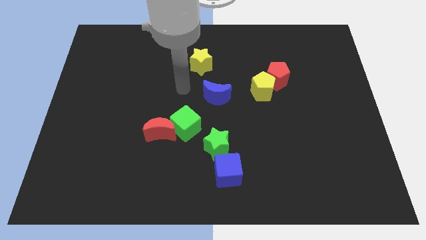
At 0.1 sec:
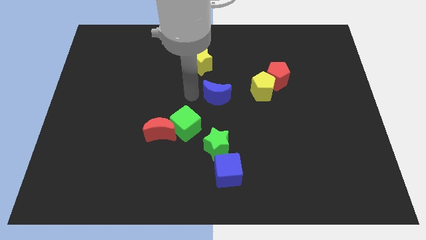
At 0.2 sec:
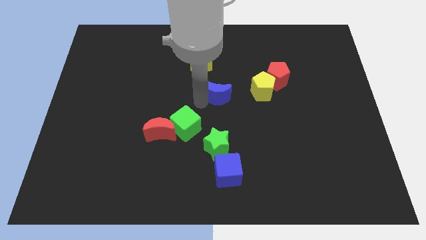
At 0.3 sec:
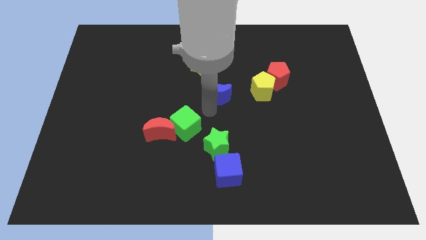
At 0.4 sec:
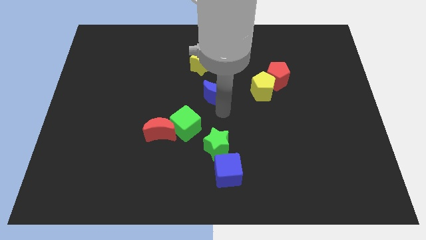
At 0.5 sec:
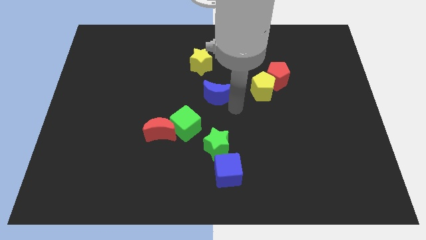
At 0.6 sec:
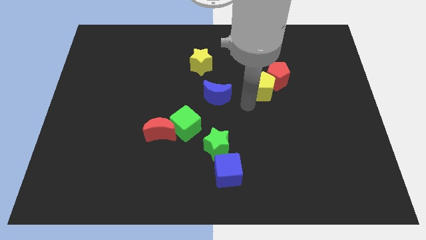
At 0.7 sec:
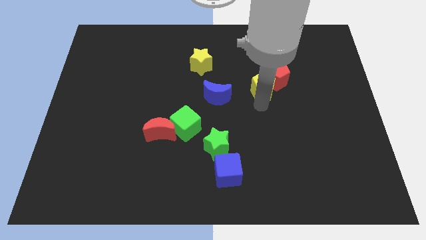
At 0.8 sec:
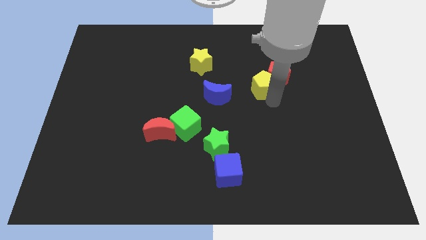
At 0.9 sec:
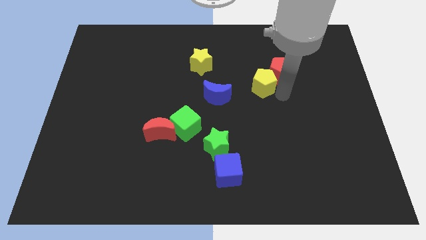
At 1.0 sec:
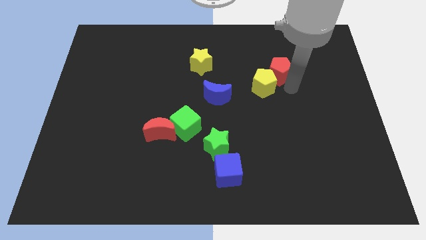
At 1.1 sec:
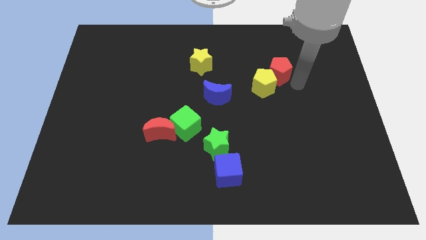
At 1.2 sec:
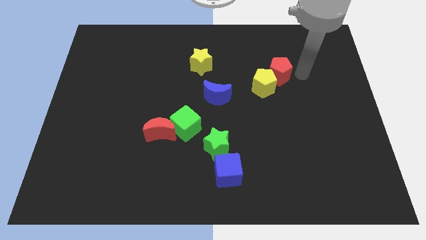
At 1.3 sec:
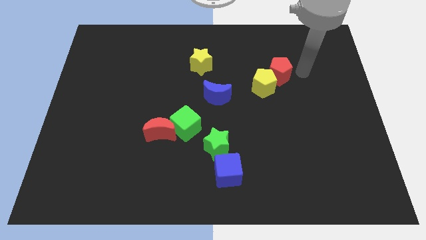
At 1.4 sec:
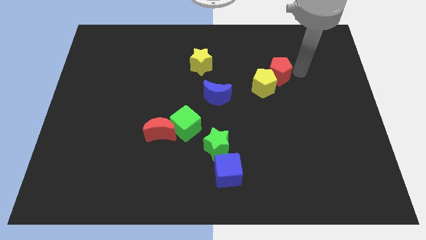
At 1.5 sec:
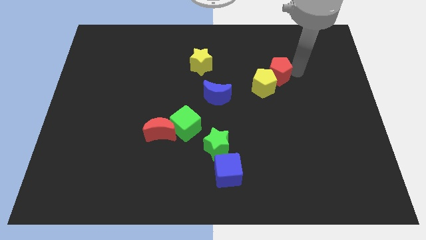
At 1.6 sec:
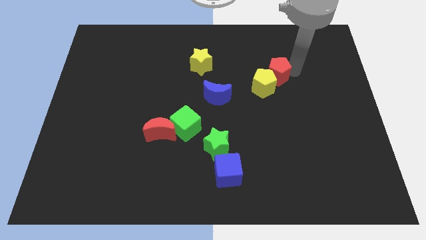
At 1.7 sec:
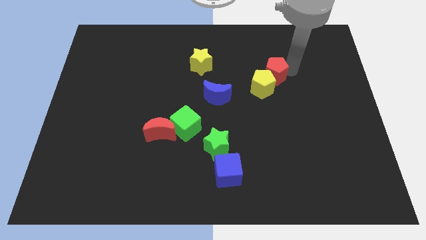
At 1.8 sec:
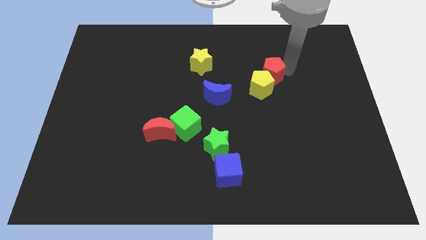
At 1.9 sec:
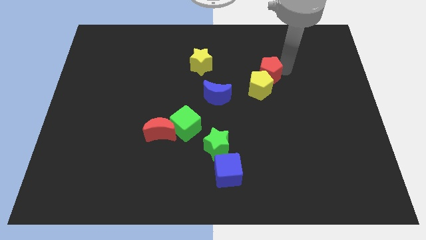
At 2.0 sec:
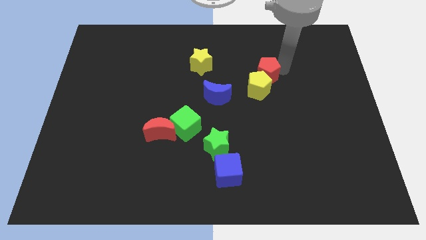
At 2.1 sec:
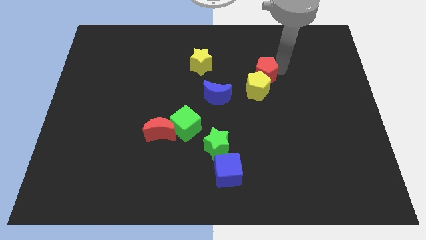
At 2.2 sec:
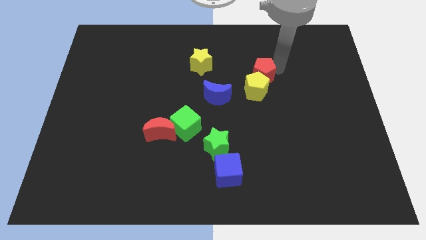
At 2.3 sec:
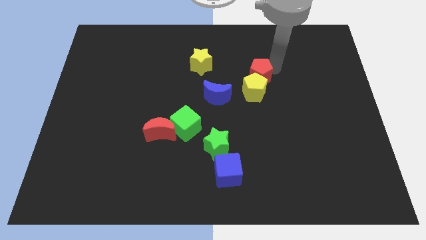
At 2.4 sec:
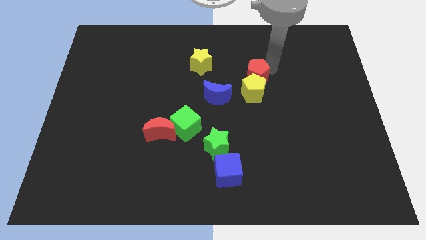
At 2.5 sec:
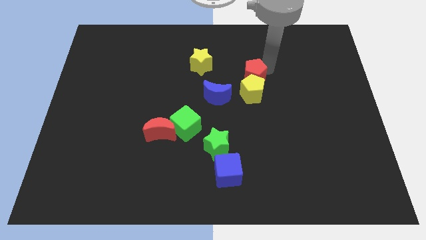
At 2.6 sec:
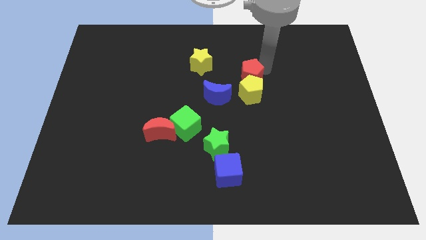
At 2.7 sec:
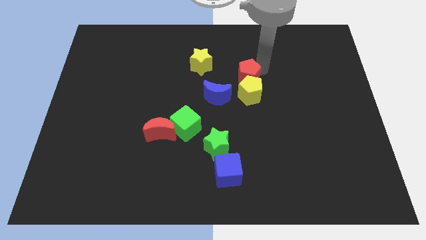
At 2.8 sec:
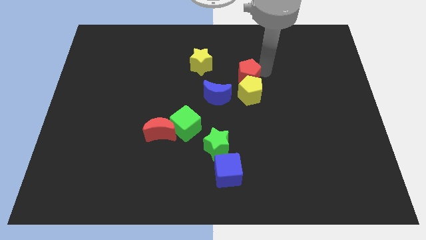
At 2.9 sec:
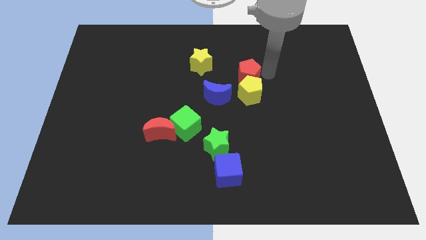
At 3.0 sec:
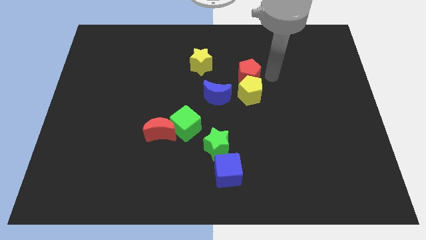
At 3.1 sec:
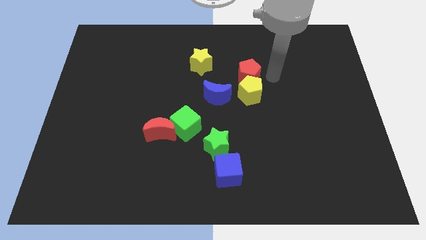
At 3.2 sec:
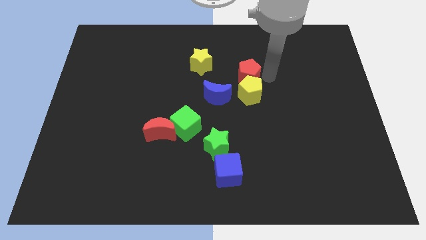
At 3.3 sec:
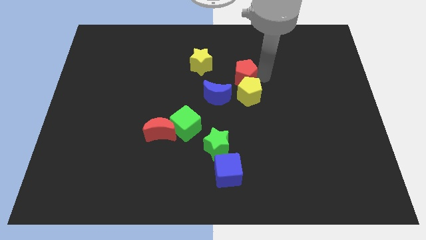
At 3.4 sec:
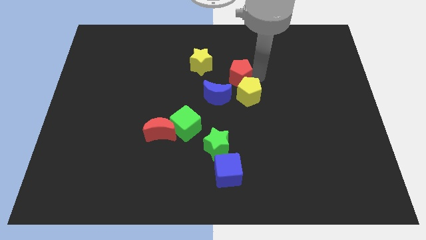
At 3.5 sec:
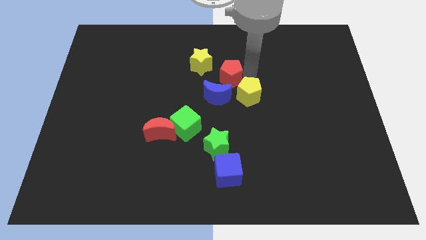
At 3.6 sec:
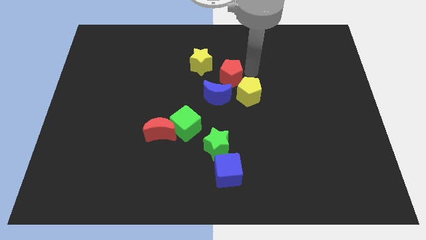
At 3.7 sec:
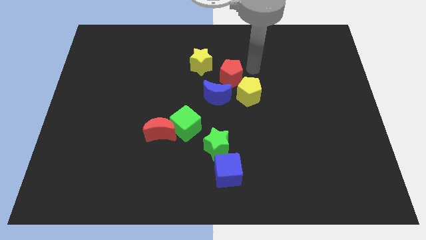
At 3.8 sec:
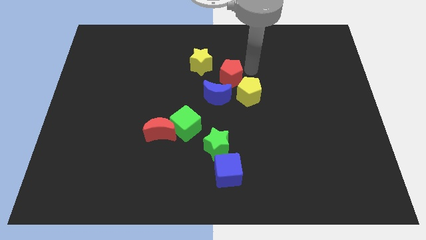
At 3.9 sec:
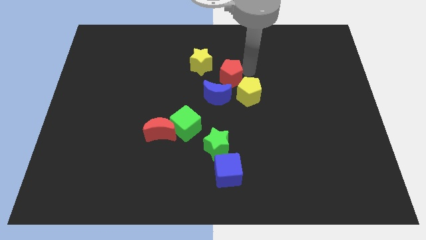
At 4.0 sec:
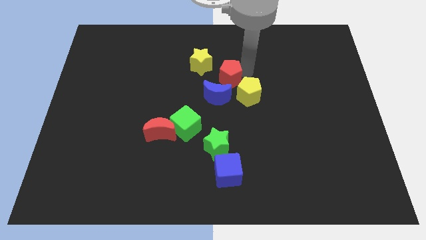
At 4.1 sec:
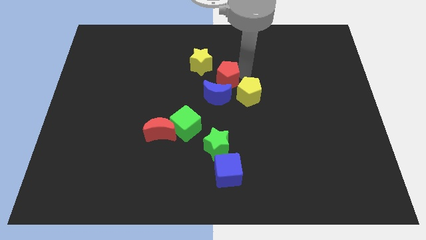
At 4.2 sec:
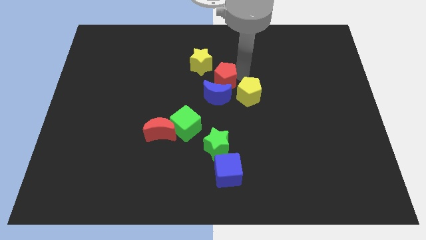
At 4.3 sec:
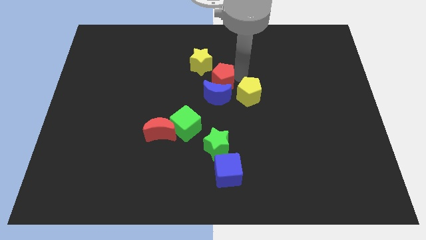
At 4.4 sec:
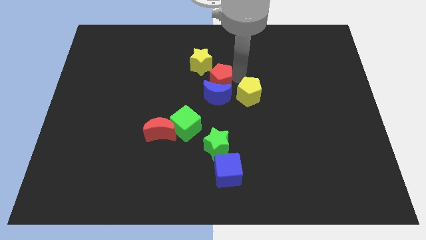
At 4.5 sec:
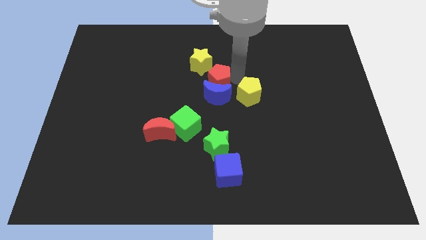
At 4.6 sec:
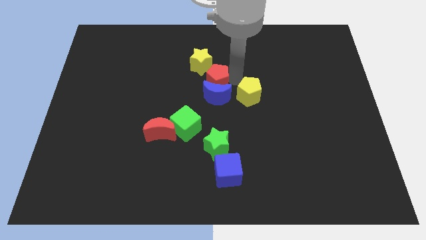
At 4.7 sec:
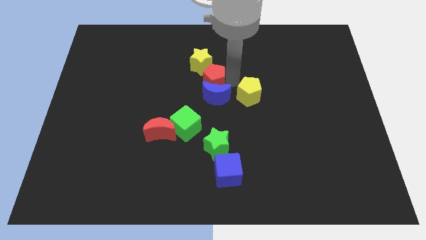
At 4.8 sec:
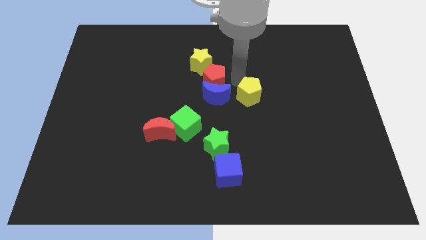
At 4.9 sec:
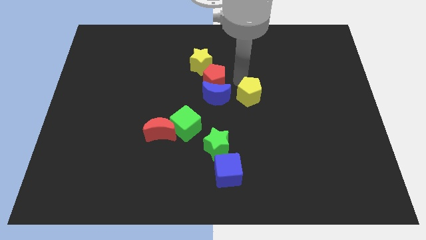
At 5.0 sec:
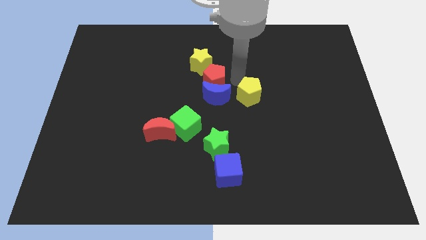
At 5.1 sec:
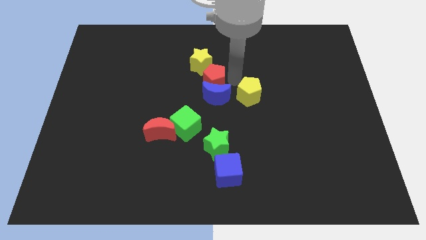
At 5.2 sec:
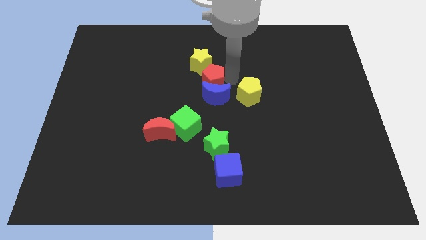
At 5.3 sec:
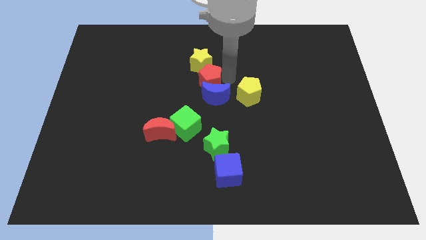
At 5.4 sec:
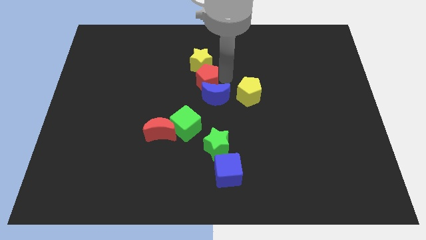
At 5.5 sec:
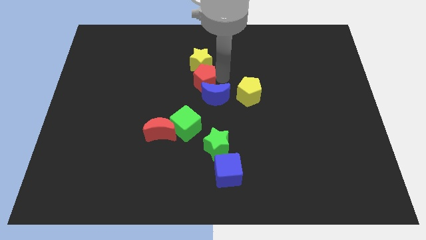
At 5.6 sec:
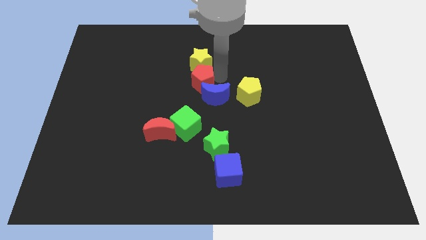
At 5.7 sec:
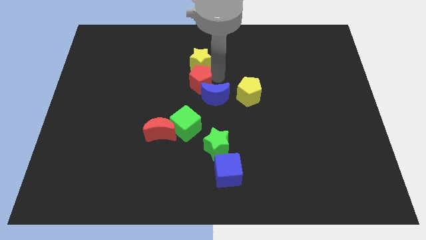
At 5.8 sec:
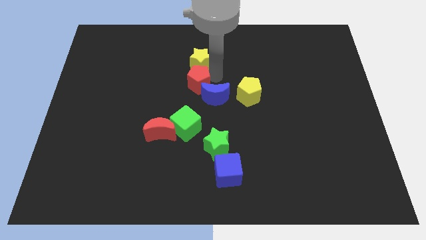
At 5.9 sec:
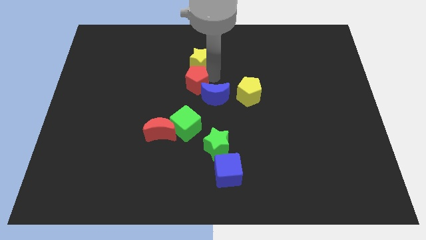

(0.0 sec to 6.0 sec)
push the red pentagon left

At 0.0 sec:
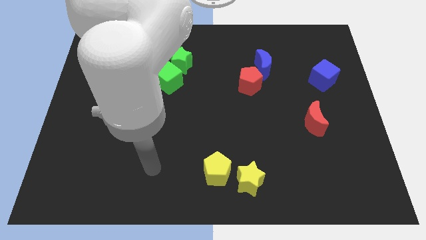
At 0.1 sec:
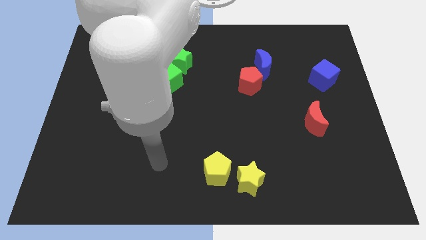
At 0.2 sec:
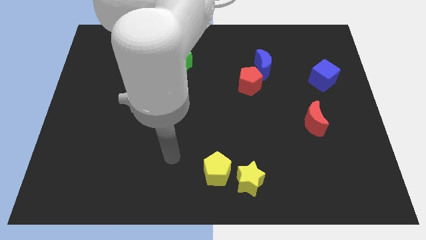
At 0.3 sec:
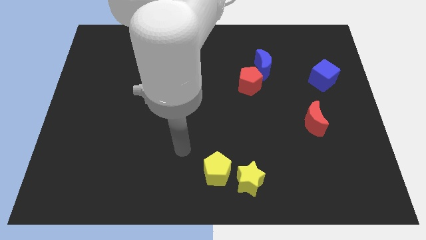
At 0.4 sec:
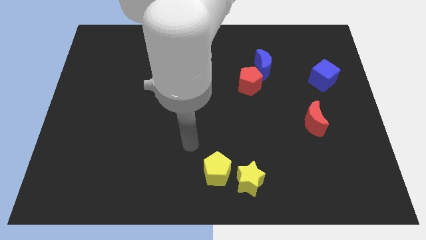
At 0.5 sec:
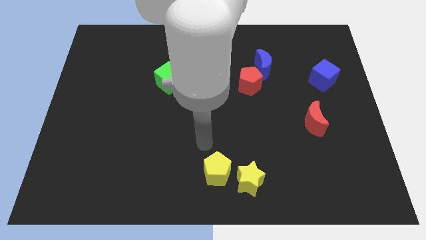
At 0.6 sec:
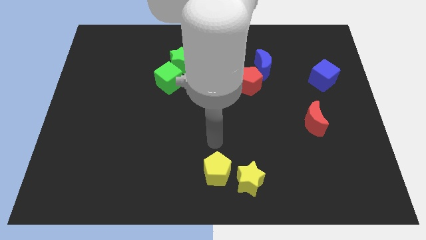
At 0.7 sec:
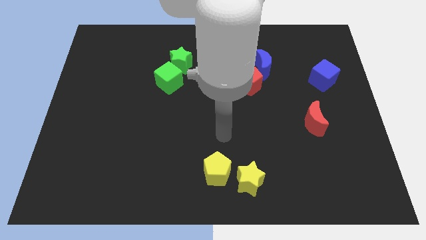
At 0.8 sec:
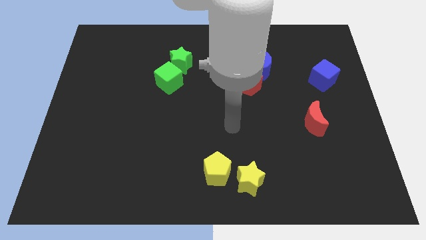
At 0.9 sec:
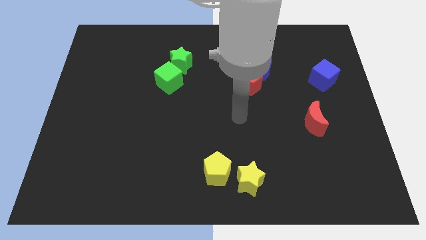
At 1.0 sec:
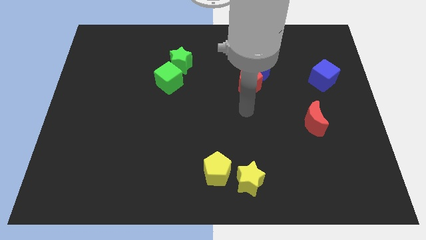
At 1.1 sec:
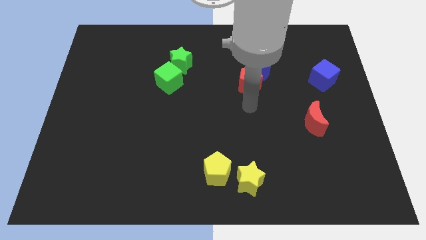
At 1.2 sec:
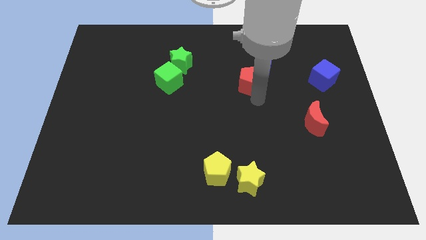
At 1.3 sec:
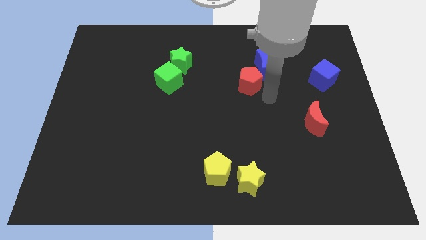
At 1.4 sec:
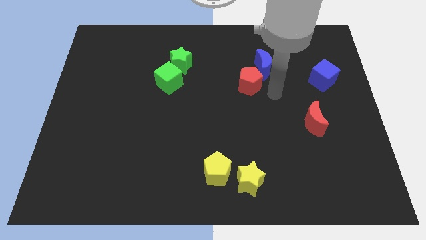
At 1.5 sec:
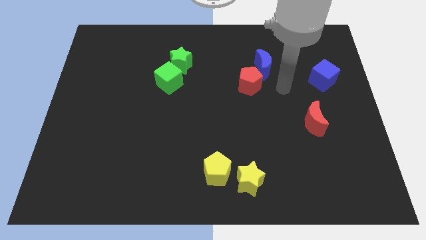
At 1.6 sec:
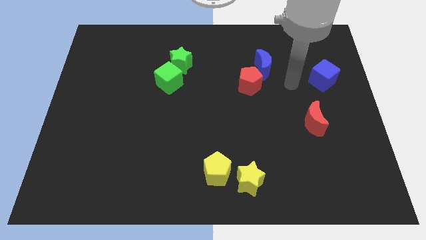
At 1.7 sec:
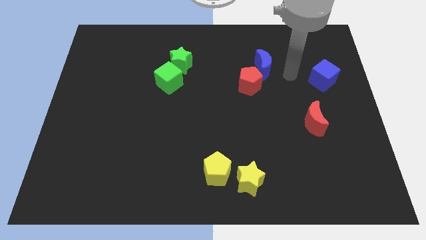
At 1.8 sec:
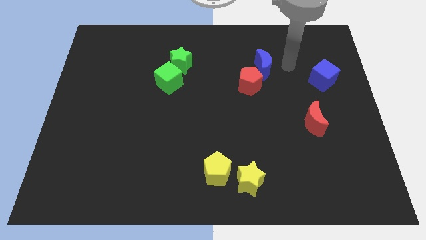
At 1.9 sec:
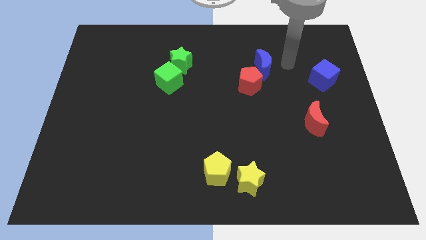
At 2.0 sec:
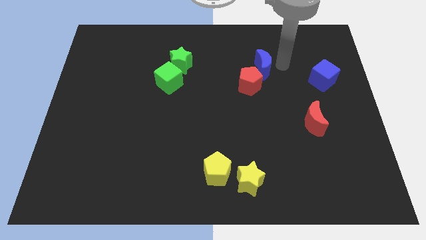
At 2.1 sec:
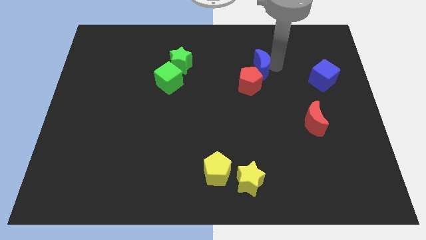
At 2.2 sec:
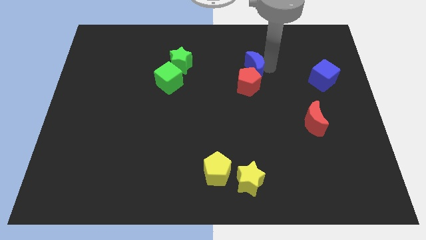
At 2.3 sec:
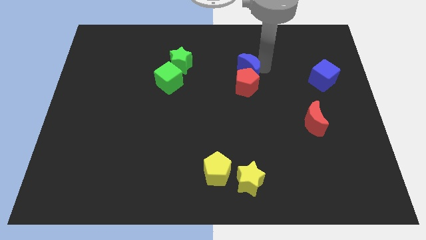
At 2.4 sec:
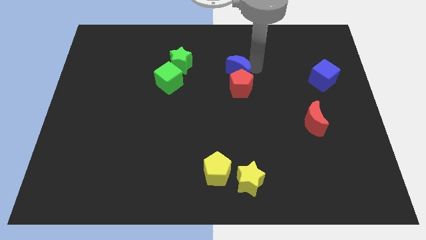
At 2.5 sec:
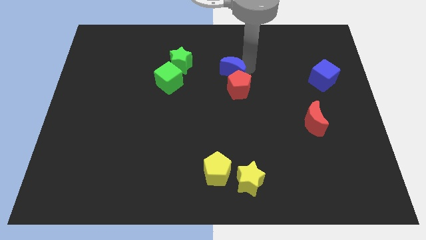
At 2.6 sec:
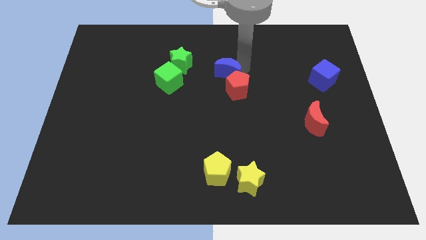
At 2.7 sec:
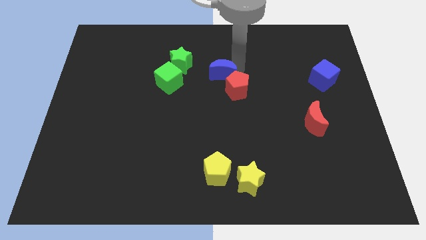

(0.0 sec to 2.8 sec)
slightly move the blue moon downwards and then left
